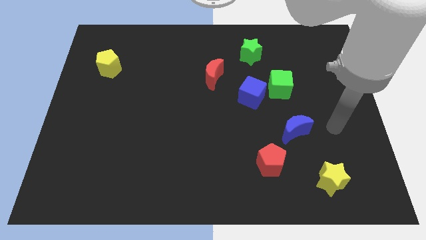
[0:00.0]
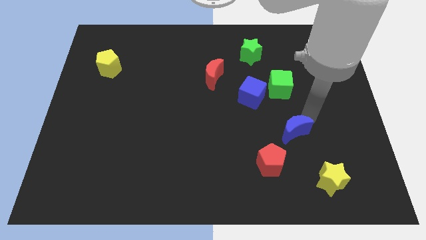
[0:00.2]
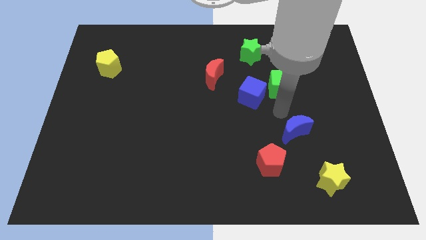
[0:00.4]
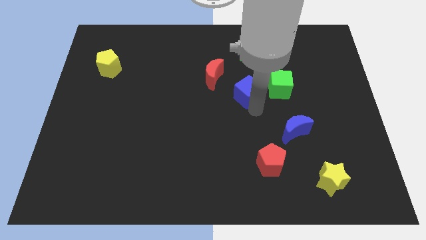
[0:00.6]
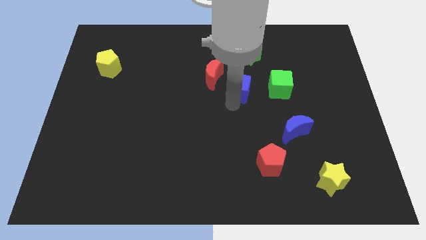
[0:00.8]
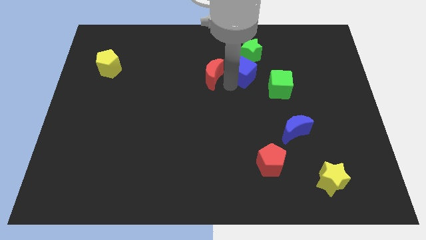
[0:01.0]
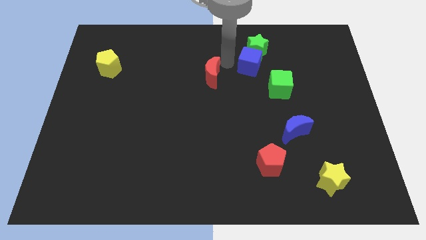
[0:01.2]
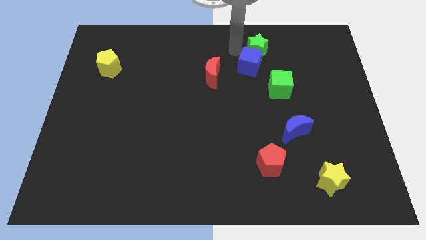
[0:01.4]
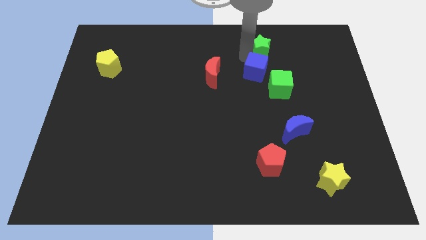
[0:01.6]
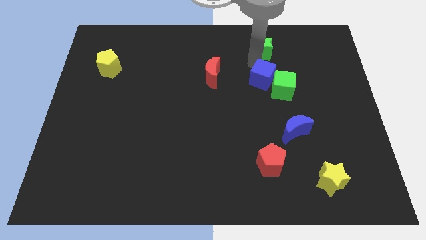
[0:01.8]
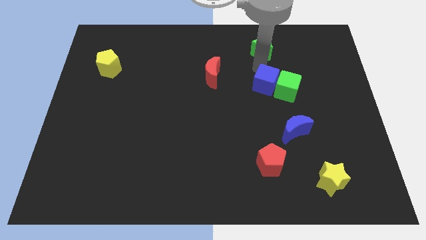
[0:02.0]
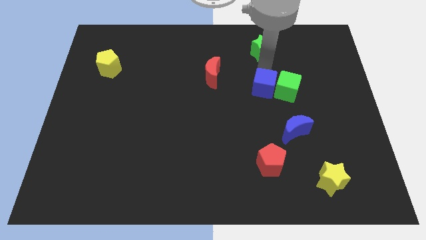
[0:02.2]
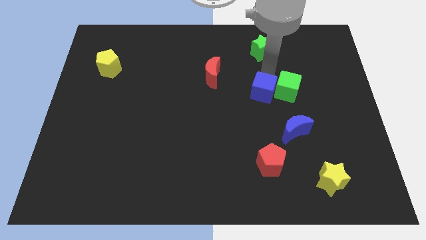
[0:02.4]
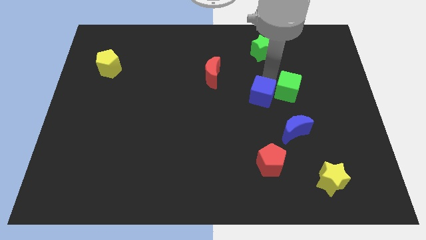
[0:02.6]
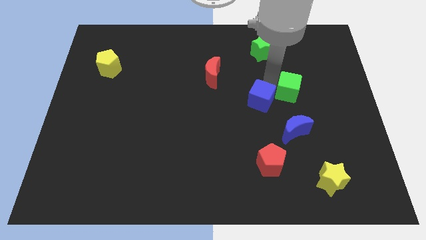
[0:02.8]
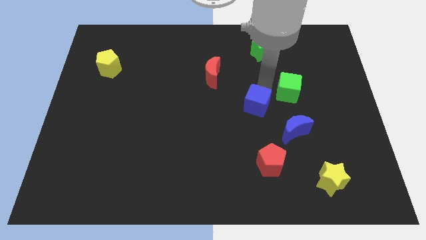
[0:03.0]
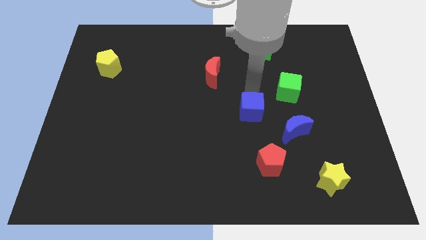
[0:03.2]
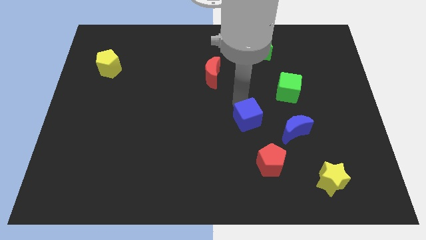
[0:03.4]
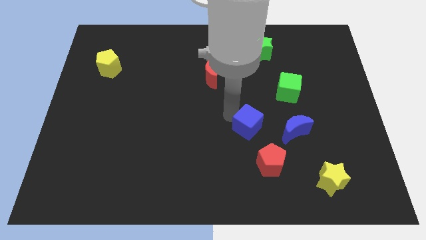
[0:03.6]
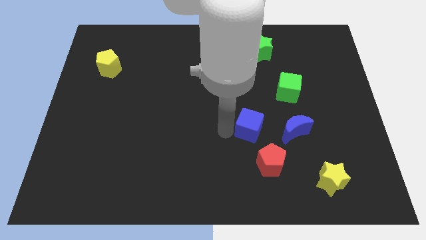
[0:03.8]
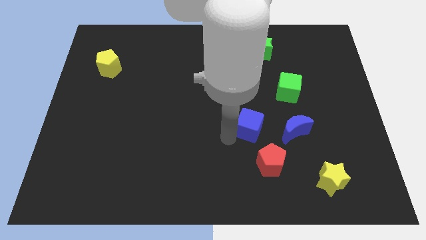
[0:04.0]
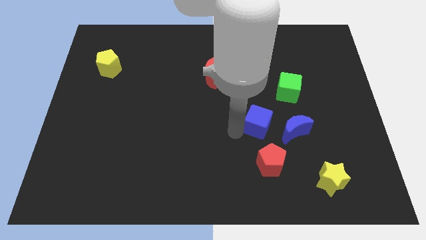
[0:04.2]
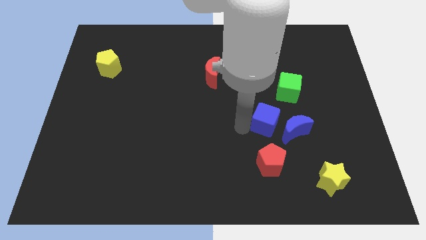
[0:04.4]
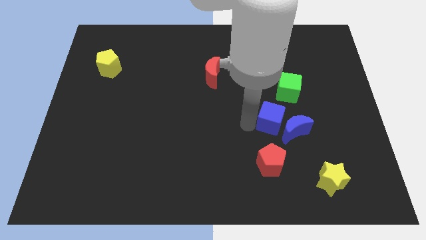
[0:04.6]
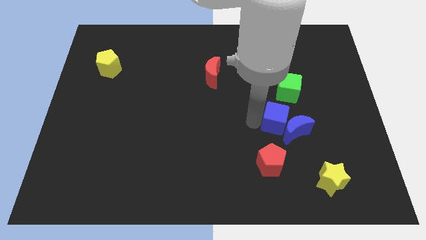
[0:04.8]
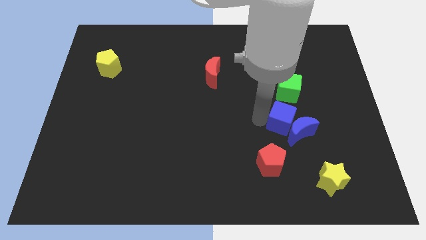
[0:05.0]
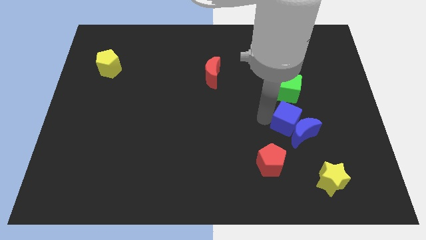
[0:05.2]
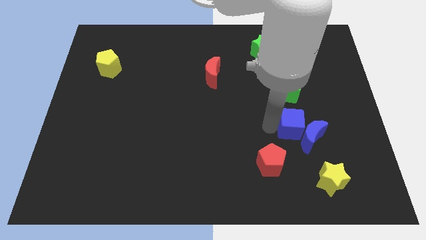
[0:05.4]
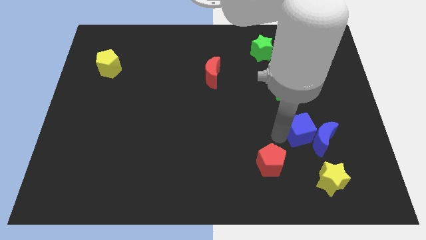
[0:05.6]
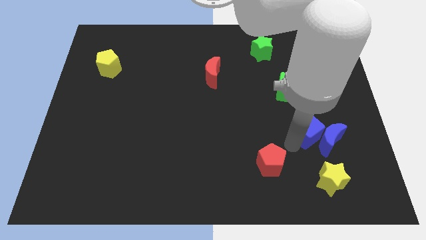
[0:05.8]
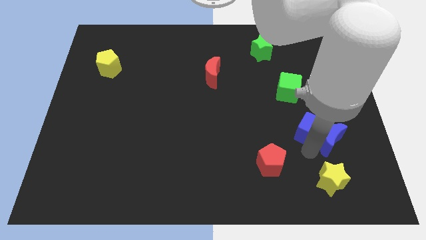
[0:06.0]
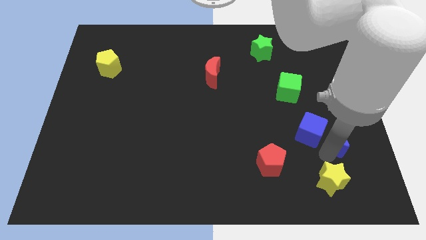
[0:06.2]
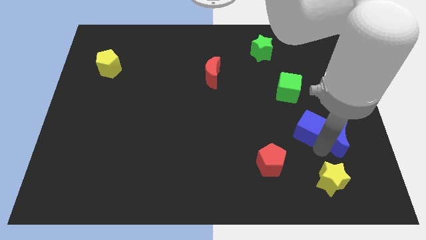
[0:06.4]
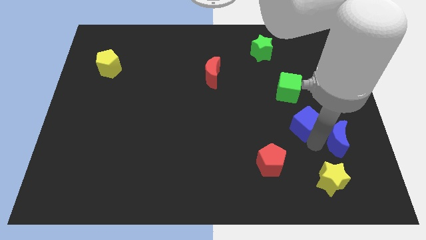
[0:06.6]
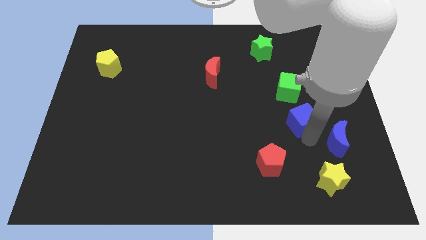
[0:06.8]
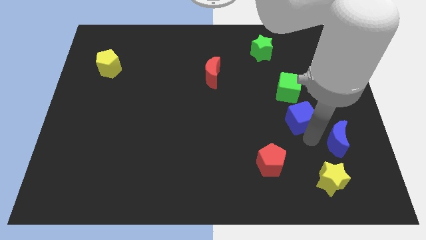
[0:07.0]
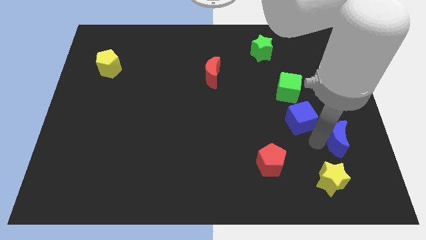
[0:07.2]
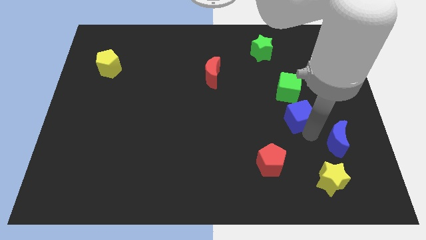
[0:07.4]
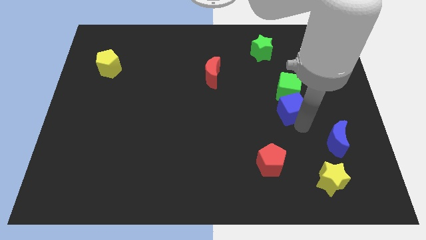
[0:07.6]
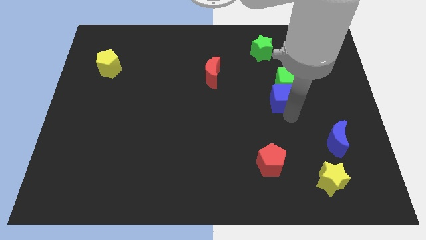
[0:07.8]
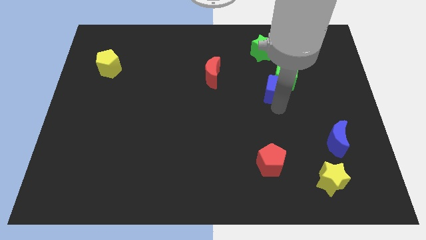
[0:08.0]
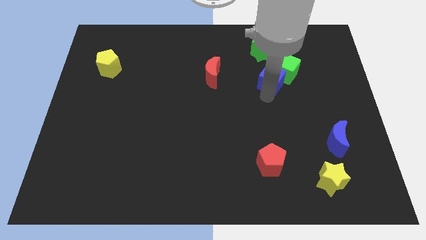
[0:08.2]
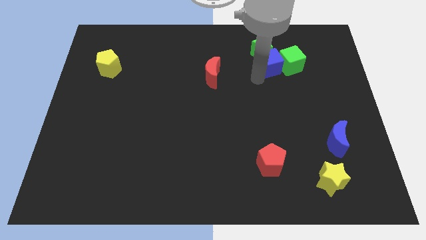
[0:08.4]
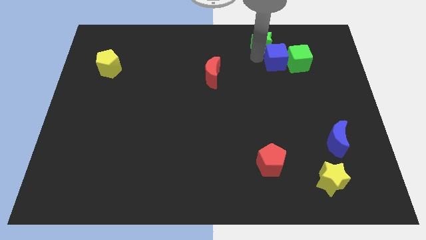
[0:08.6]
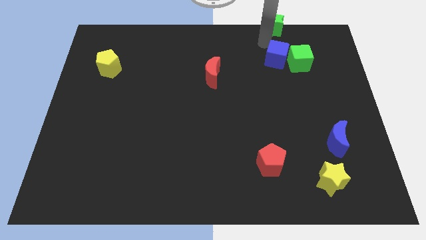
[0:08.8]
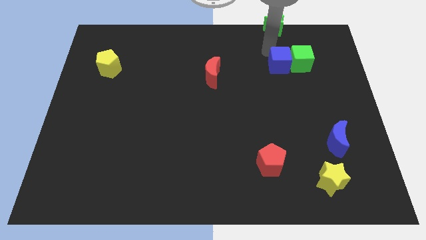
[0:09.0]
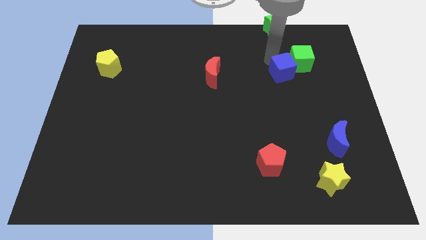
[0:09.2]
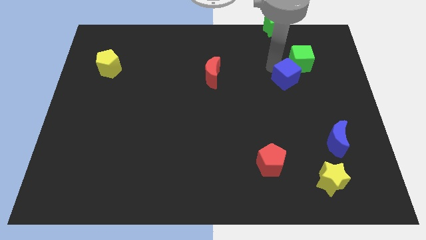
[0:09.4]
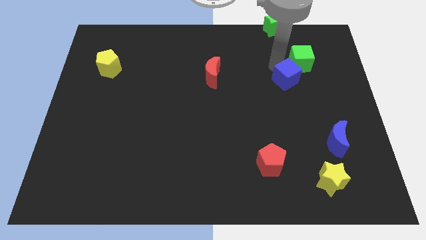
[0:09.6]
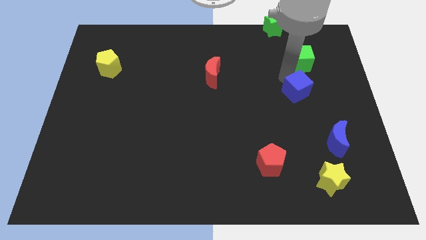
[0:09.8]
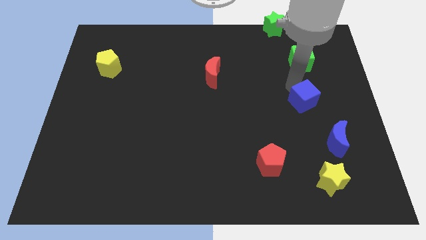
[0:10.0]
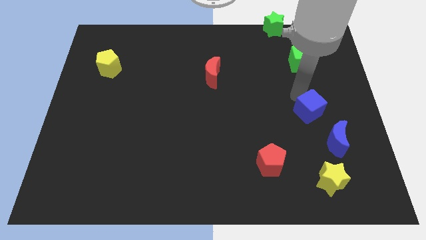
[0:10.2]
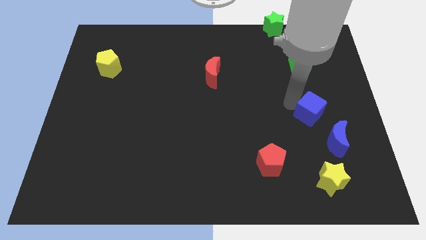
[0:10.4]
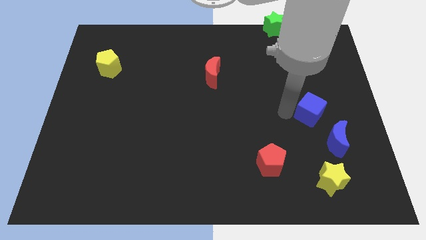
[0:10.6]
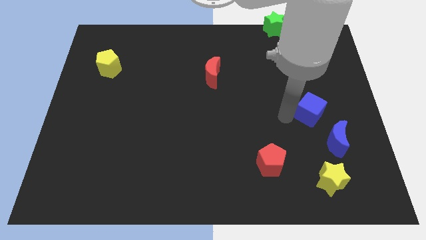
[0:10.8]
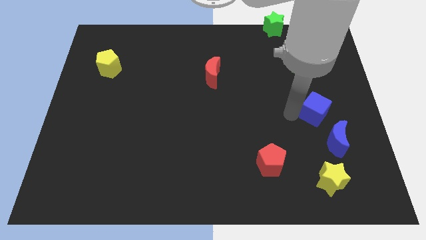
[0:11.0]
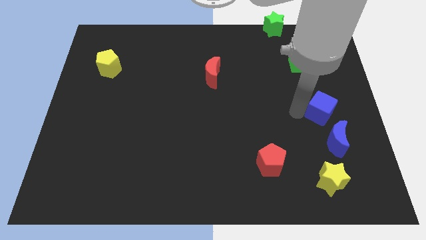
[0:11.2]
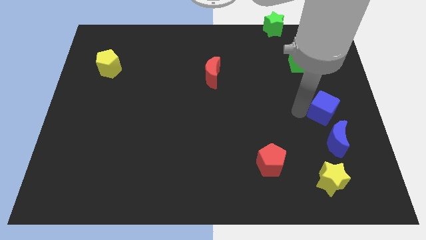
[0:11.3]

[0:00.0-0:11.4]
slide the blue cube to the center right

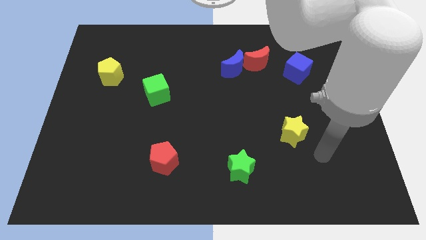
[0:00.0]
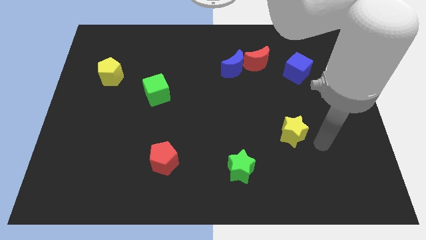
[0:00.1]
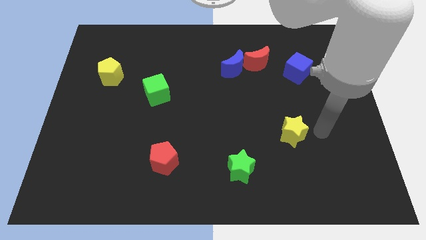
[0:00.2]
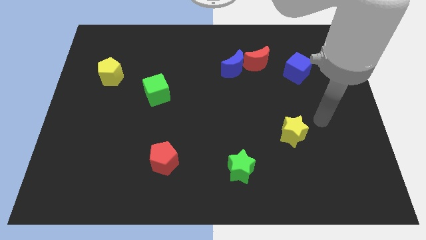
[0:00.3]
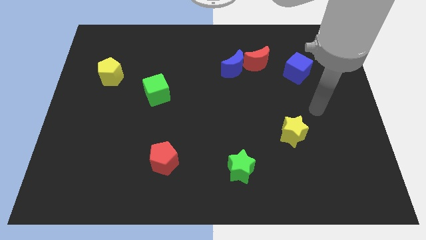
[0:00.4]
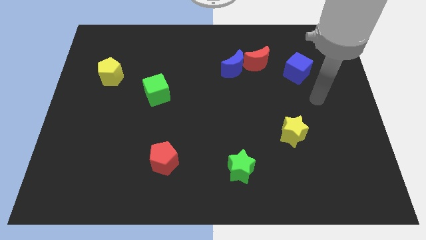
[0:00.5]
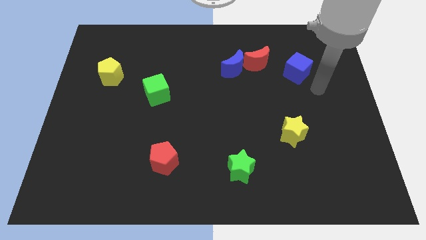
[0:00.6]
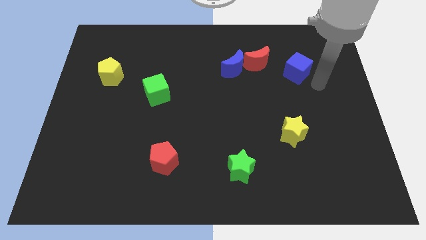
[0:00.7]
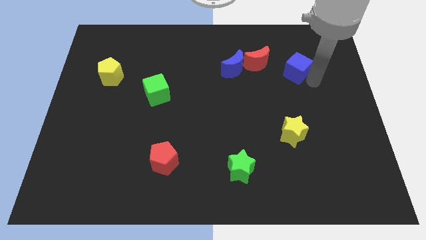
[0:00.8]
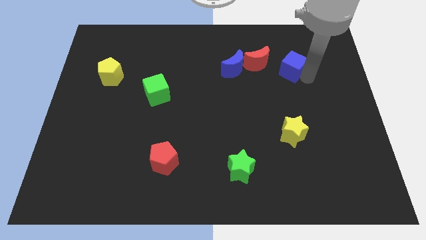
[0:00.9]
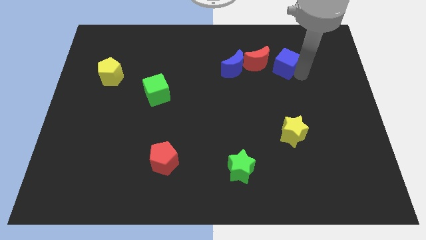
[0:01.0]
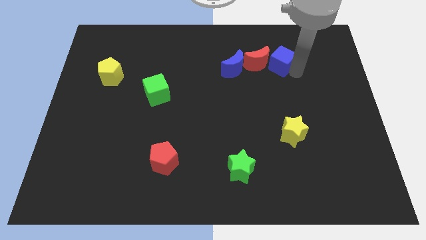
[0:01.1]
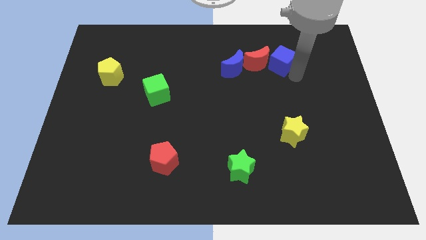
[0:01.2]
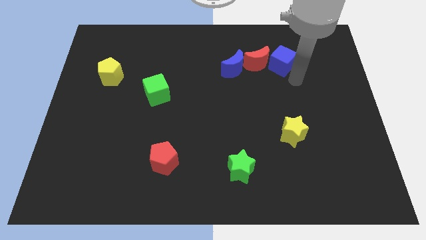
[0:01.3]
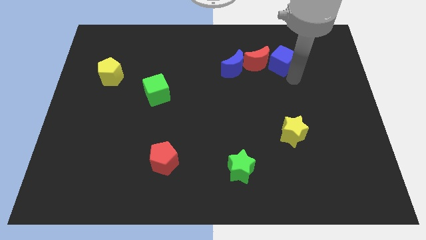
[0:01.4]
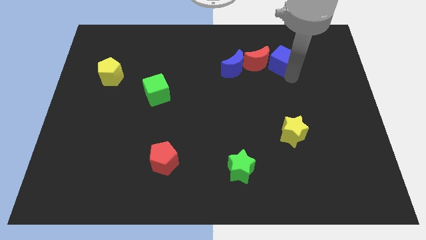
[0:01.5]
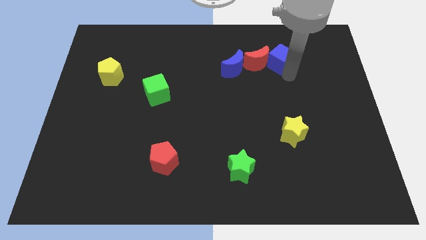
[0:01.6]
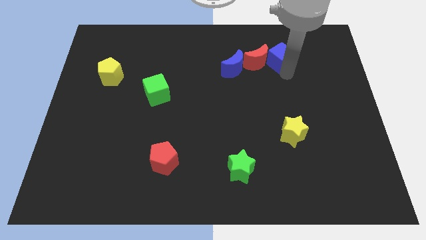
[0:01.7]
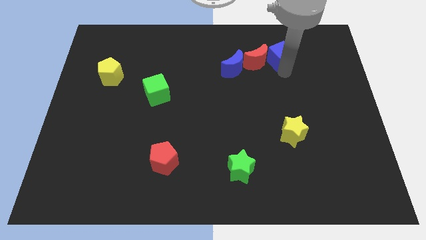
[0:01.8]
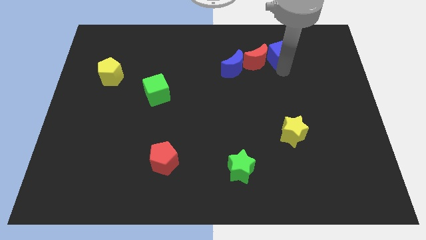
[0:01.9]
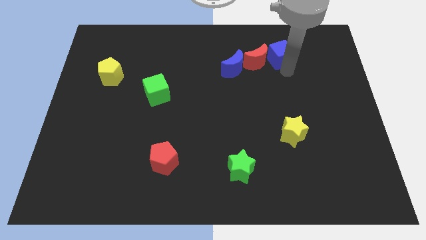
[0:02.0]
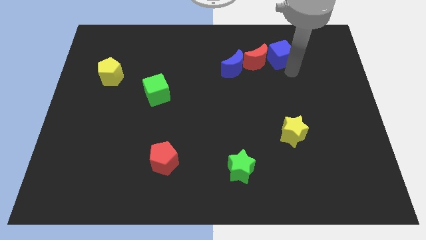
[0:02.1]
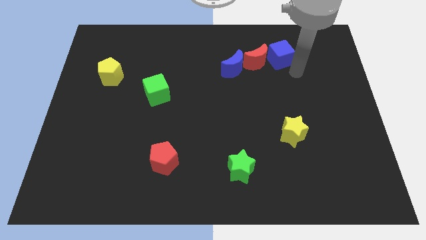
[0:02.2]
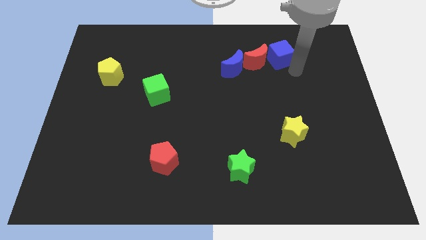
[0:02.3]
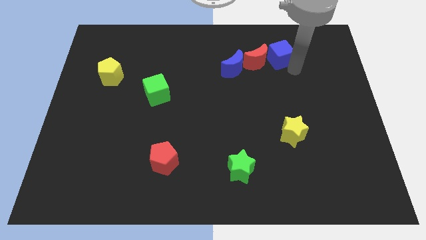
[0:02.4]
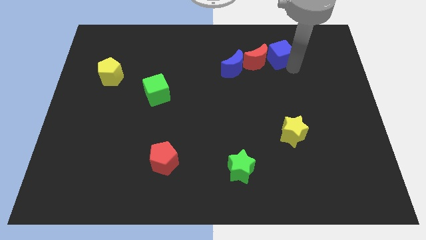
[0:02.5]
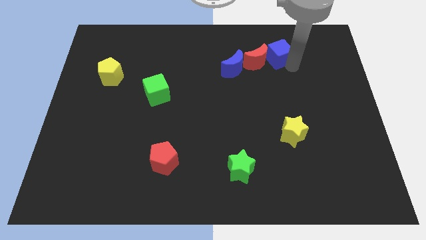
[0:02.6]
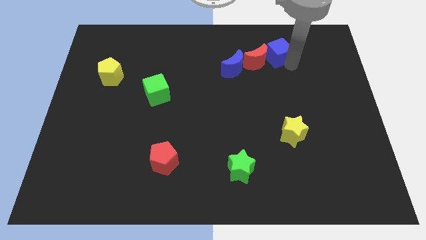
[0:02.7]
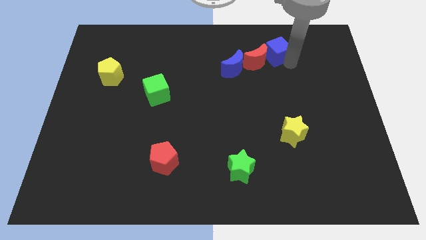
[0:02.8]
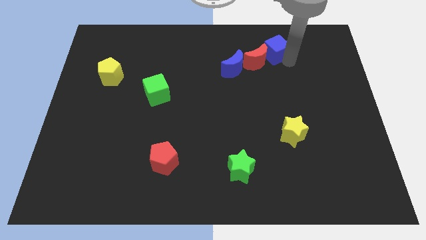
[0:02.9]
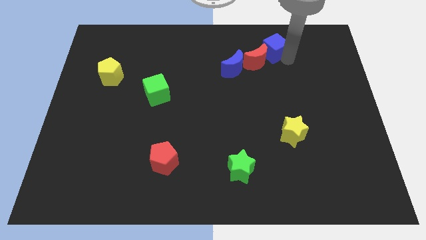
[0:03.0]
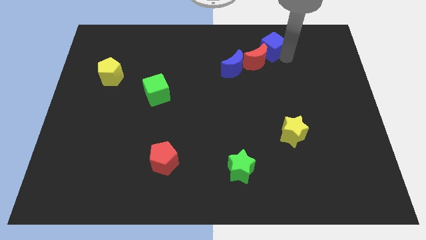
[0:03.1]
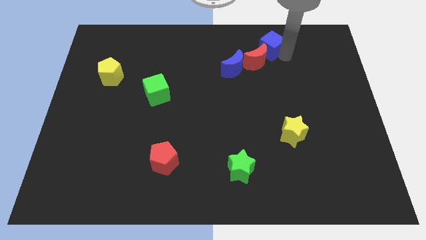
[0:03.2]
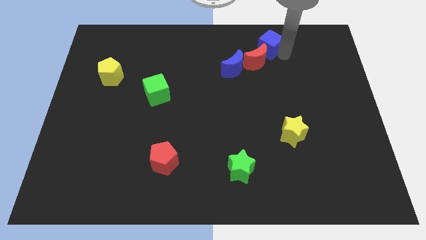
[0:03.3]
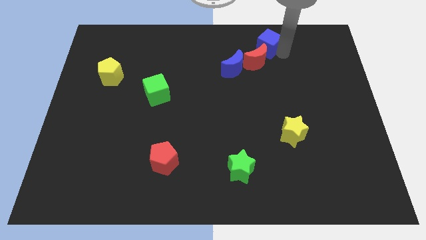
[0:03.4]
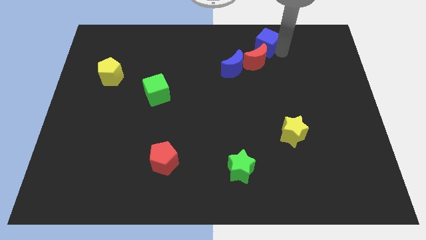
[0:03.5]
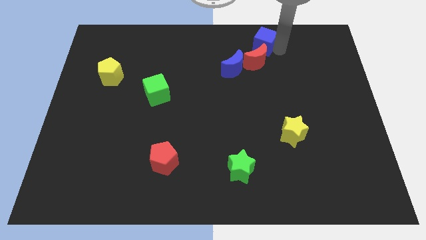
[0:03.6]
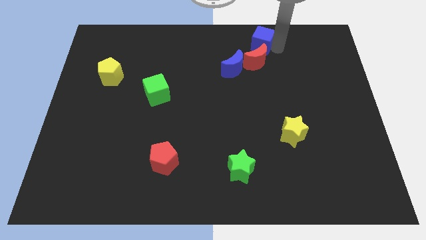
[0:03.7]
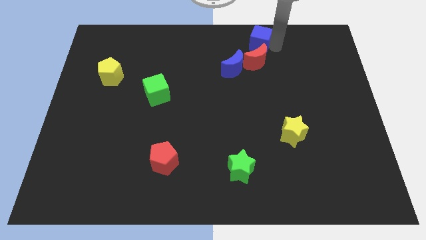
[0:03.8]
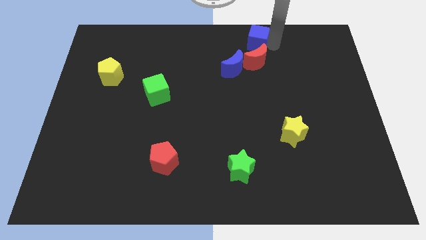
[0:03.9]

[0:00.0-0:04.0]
slide the blue cube to the towards your base
